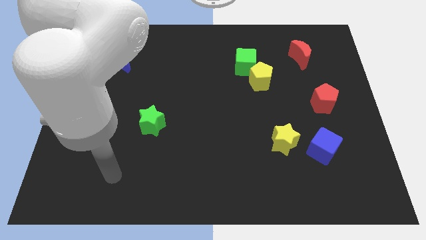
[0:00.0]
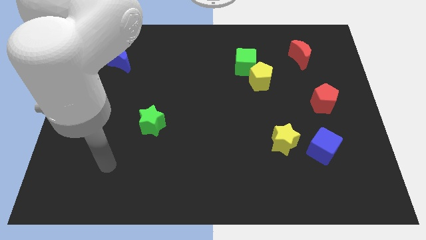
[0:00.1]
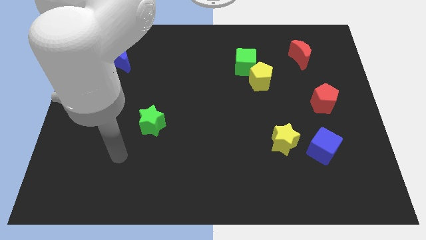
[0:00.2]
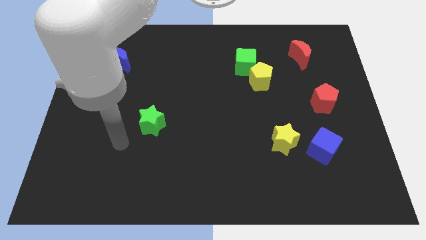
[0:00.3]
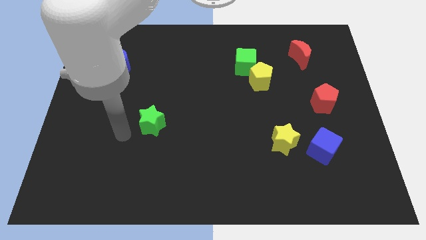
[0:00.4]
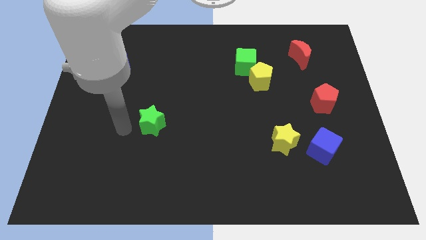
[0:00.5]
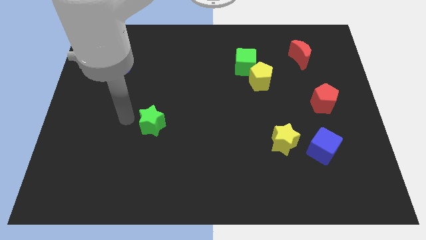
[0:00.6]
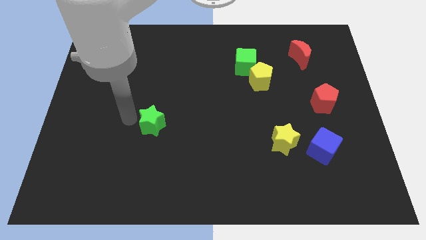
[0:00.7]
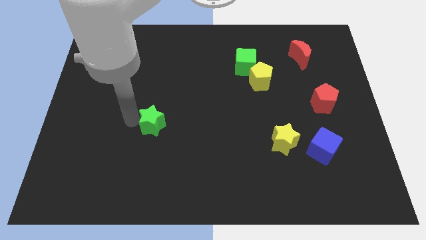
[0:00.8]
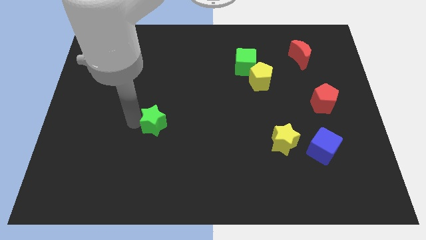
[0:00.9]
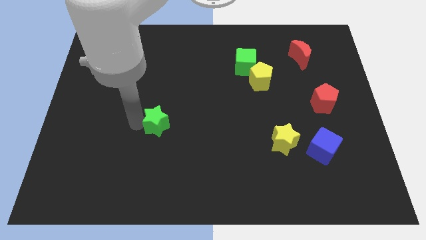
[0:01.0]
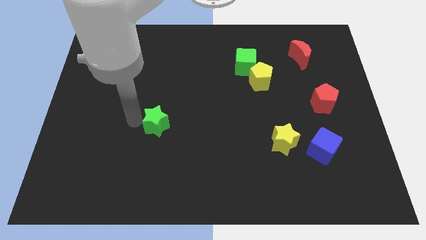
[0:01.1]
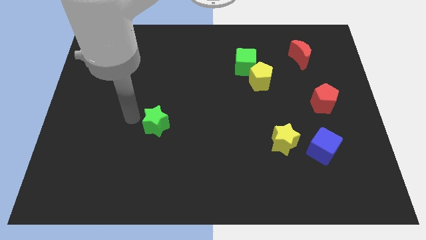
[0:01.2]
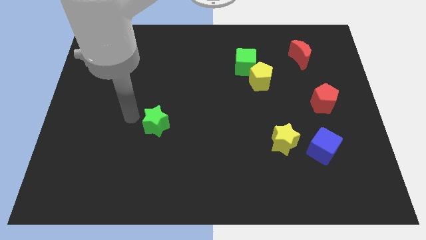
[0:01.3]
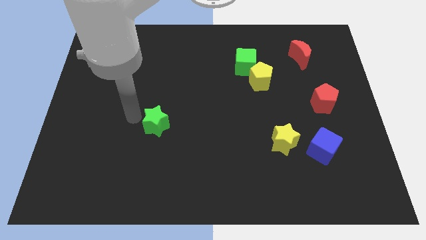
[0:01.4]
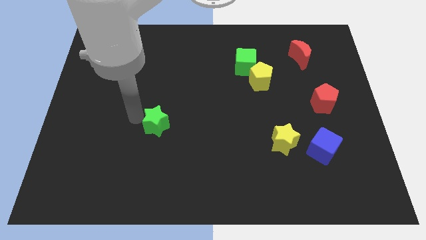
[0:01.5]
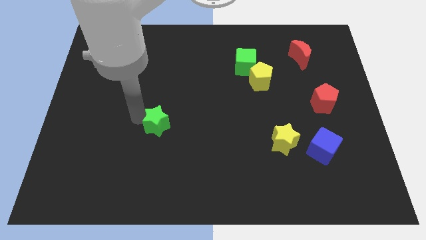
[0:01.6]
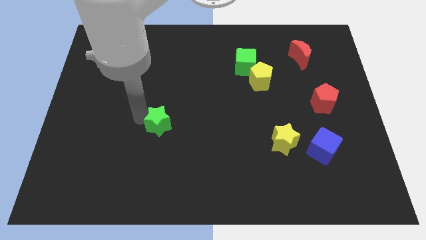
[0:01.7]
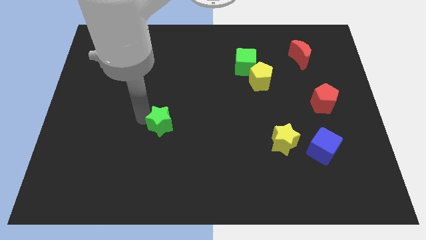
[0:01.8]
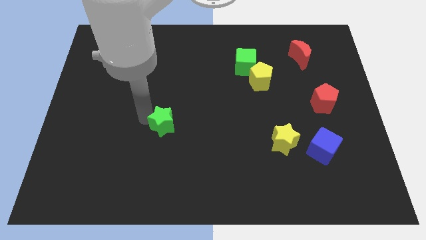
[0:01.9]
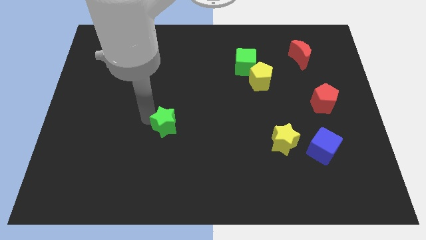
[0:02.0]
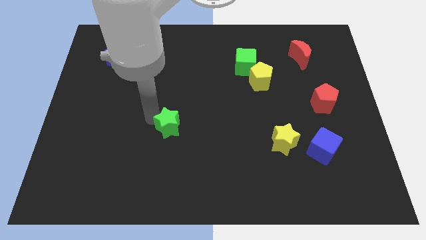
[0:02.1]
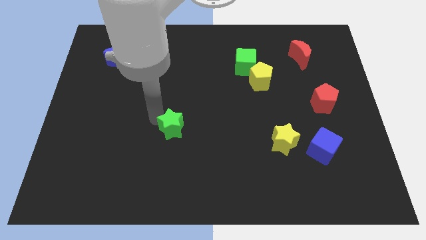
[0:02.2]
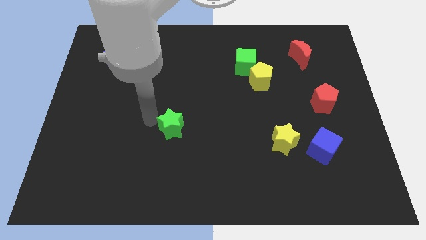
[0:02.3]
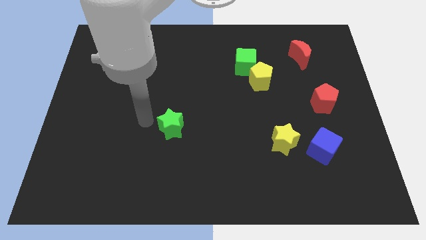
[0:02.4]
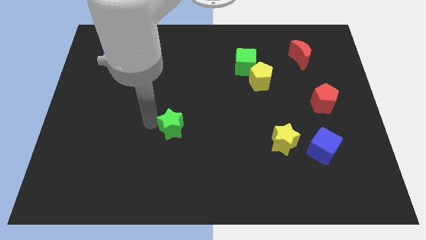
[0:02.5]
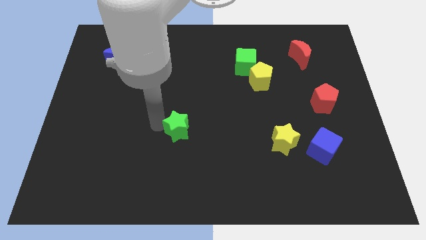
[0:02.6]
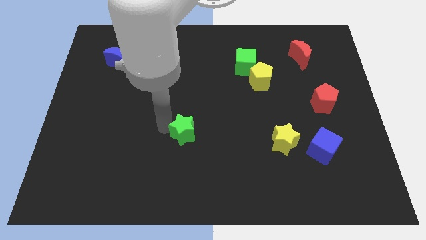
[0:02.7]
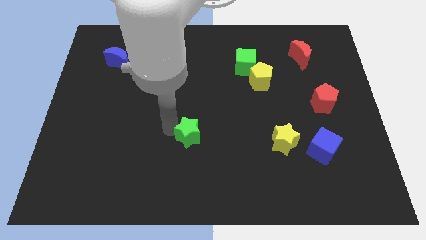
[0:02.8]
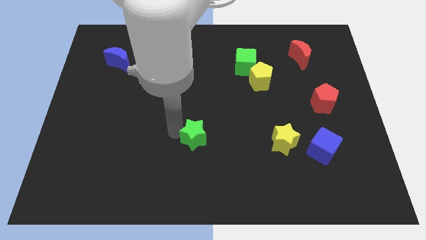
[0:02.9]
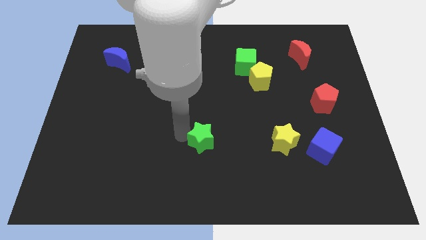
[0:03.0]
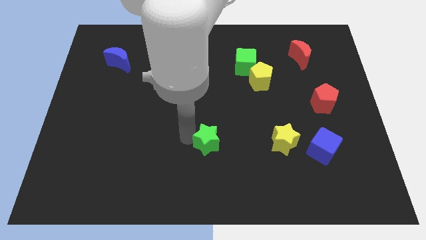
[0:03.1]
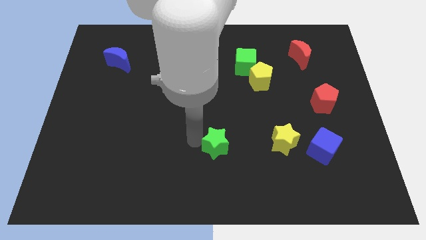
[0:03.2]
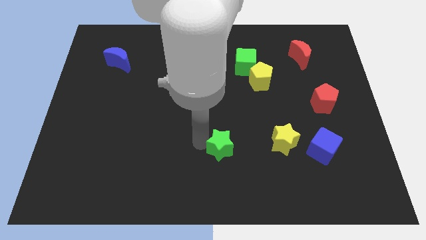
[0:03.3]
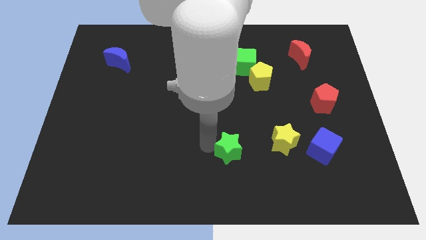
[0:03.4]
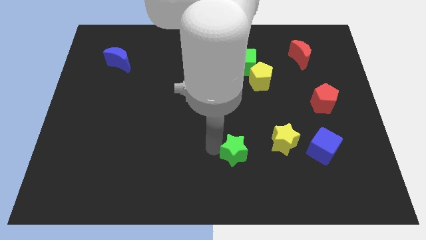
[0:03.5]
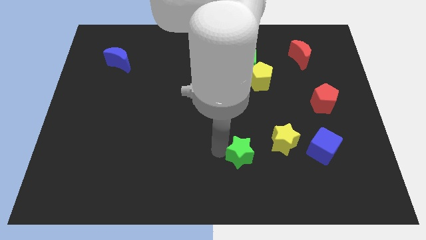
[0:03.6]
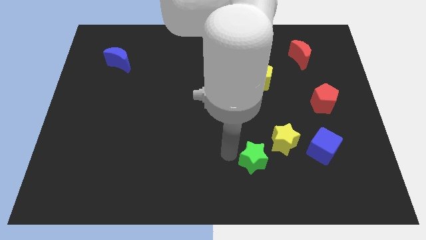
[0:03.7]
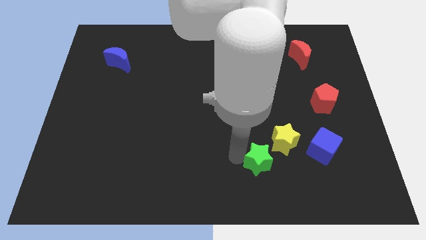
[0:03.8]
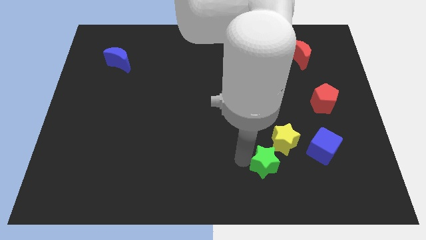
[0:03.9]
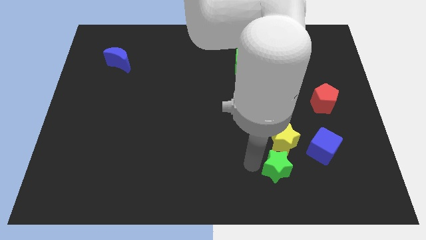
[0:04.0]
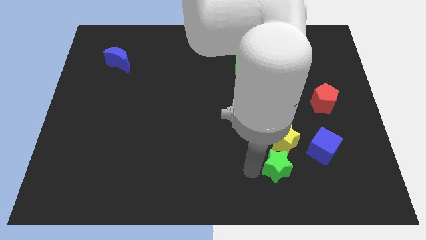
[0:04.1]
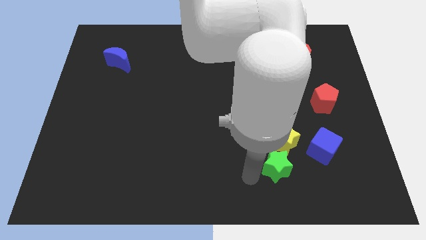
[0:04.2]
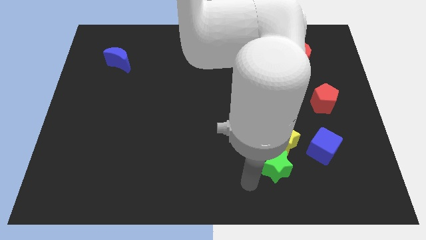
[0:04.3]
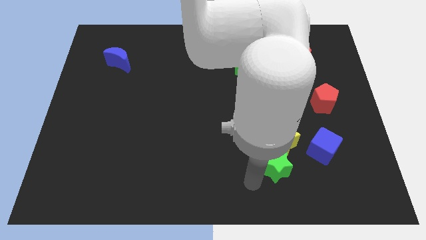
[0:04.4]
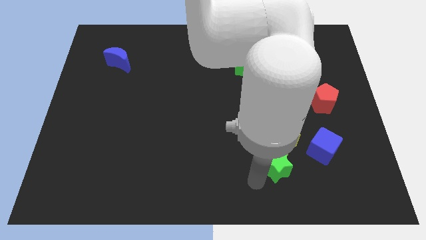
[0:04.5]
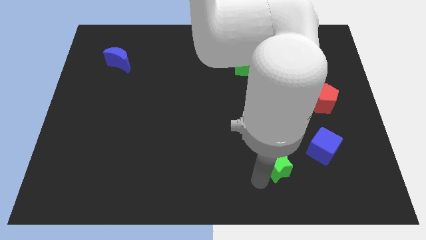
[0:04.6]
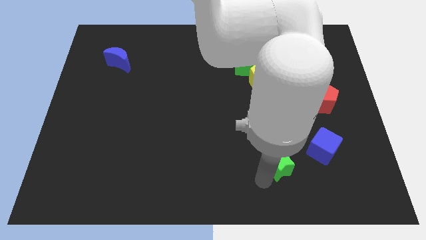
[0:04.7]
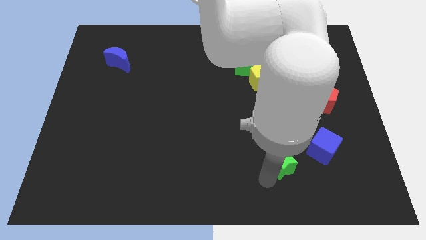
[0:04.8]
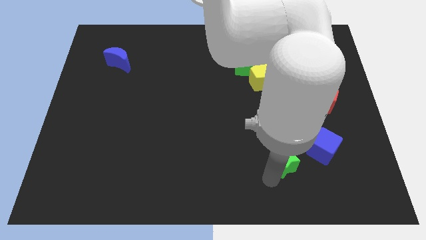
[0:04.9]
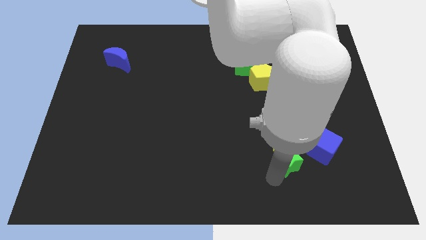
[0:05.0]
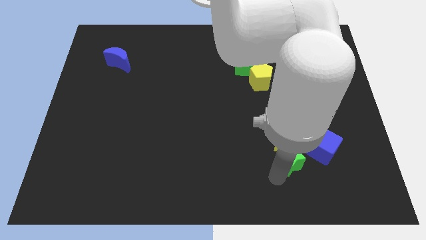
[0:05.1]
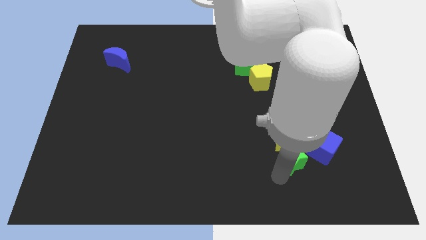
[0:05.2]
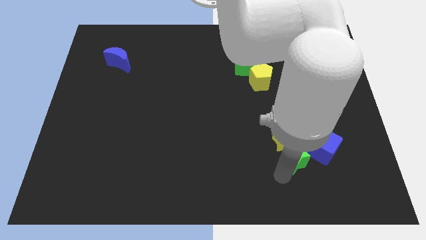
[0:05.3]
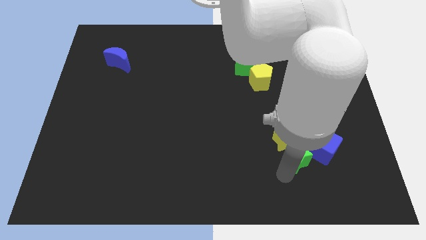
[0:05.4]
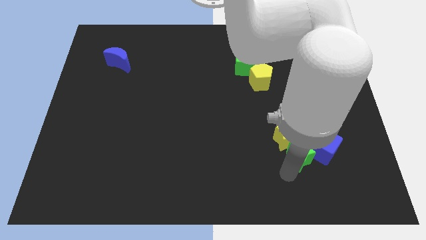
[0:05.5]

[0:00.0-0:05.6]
push the green star towards the blue cube
